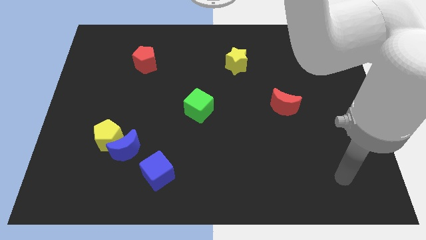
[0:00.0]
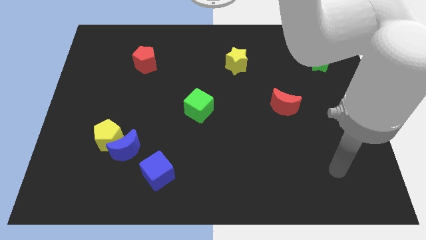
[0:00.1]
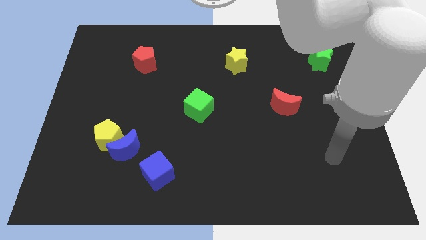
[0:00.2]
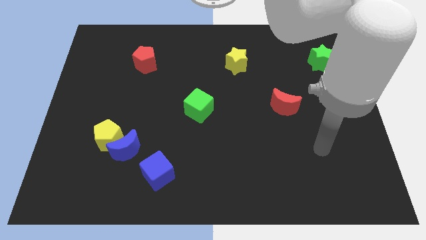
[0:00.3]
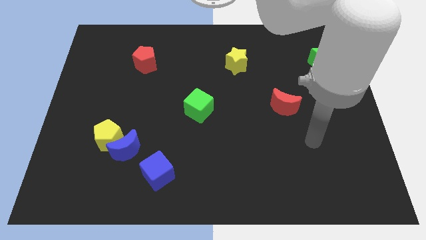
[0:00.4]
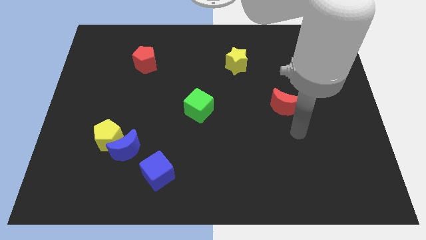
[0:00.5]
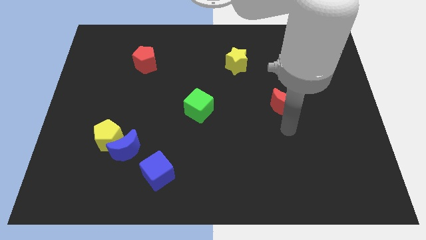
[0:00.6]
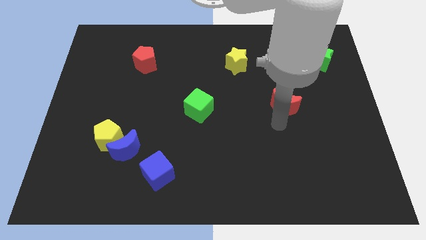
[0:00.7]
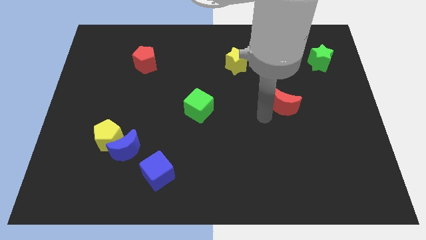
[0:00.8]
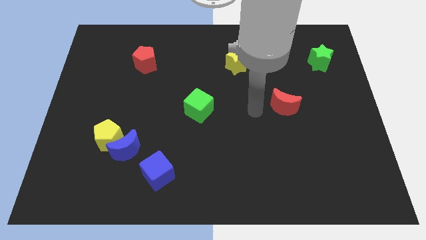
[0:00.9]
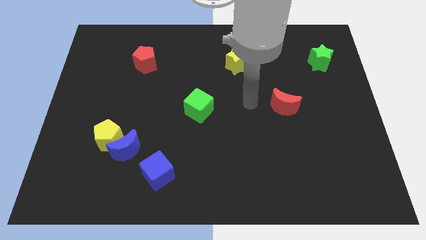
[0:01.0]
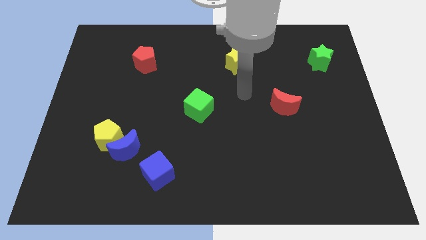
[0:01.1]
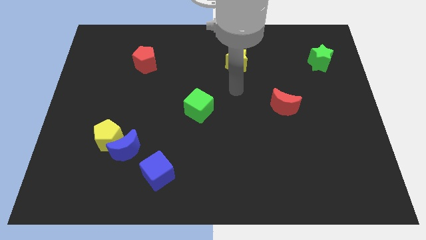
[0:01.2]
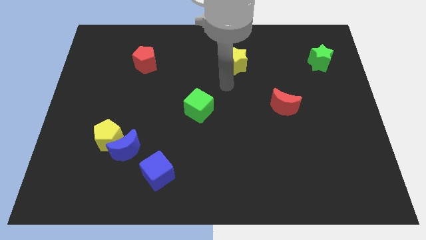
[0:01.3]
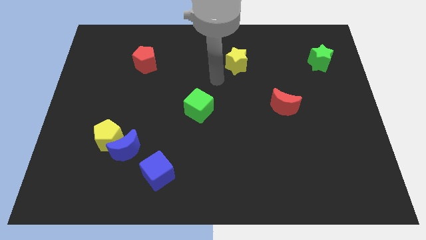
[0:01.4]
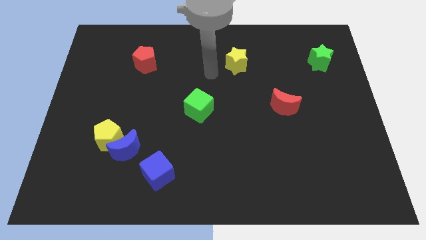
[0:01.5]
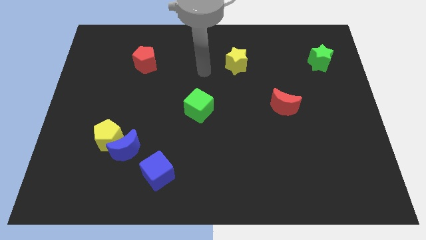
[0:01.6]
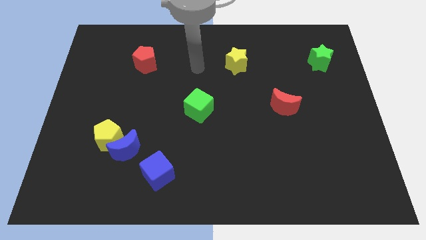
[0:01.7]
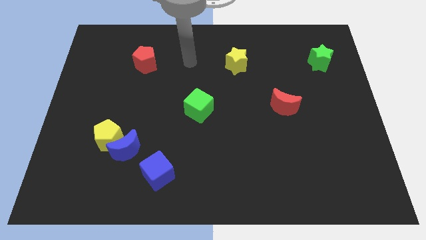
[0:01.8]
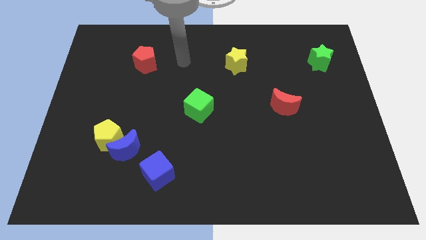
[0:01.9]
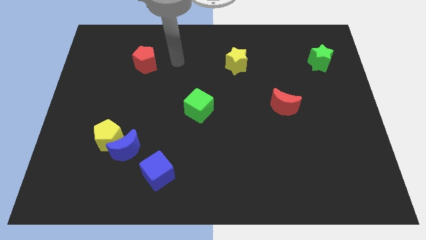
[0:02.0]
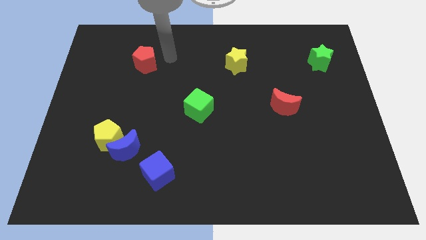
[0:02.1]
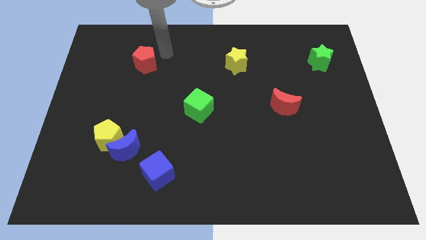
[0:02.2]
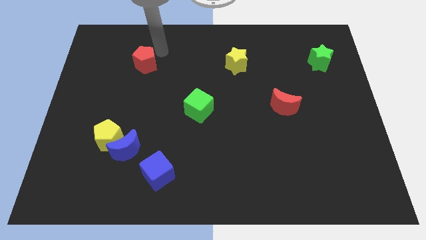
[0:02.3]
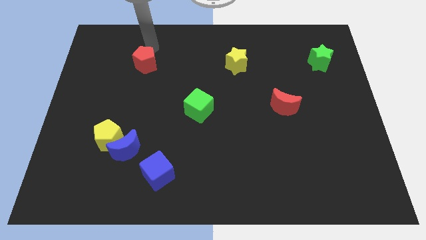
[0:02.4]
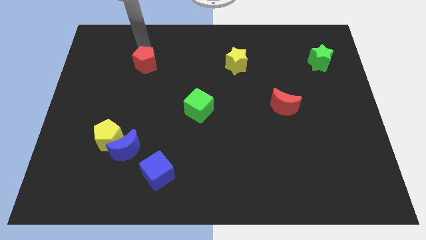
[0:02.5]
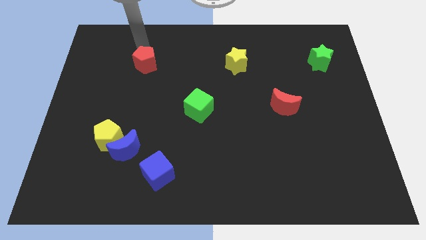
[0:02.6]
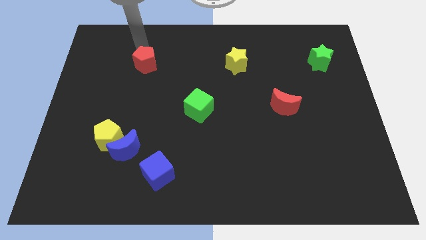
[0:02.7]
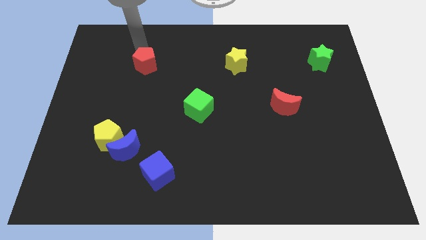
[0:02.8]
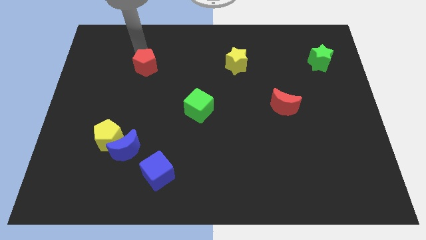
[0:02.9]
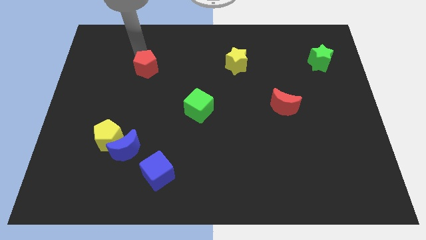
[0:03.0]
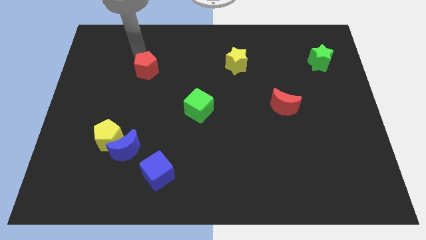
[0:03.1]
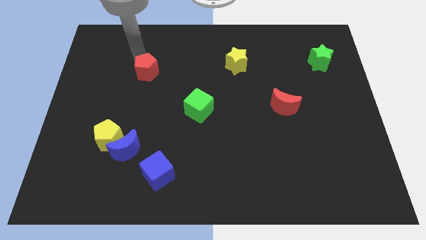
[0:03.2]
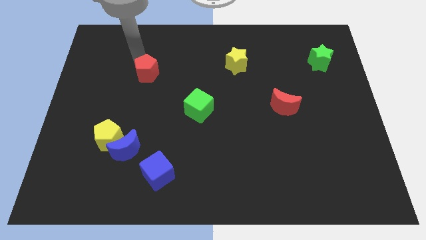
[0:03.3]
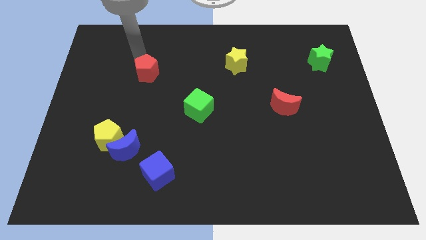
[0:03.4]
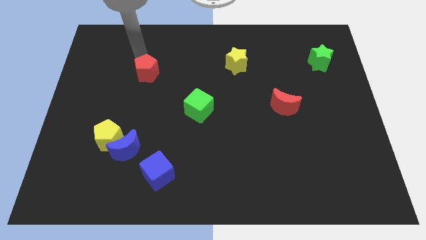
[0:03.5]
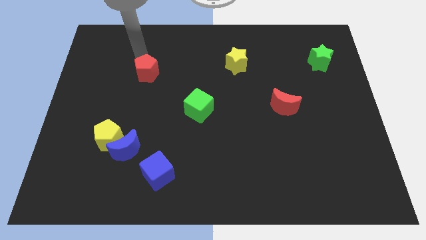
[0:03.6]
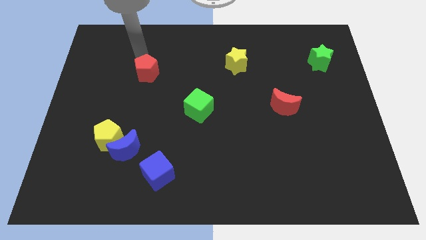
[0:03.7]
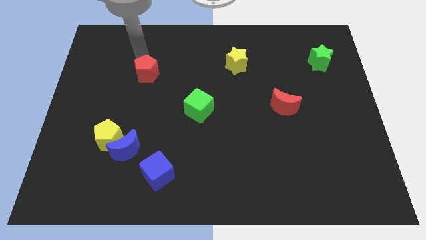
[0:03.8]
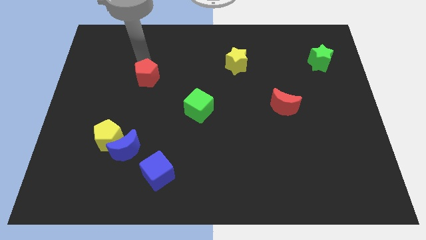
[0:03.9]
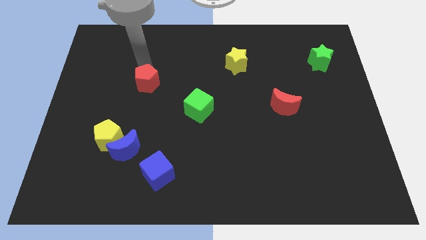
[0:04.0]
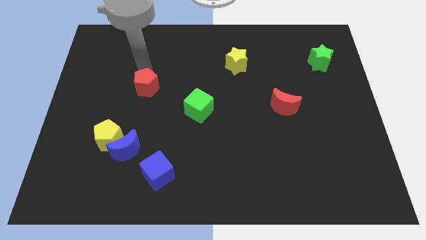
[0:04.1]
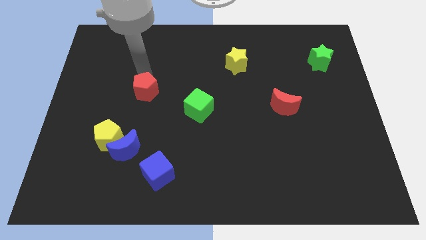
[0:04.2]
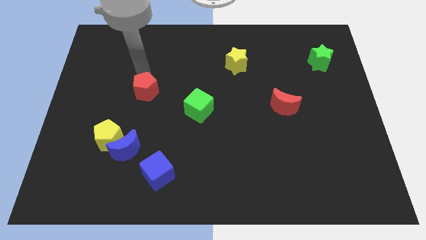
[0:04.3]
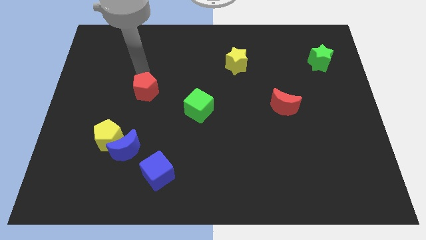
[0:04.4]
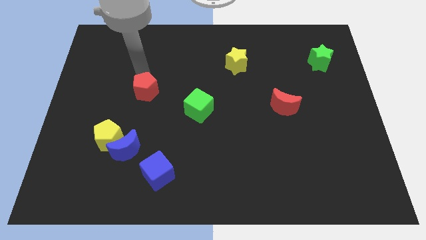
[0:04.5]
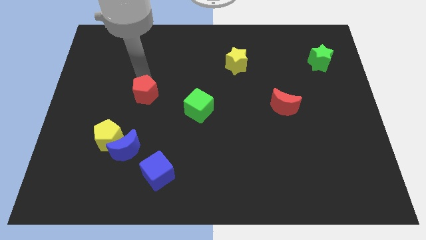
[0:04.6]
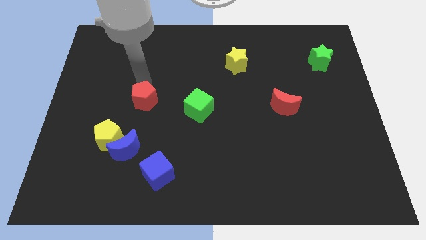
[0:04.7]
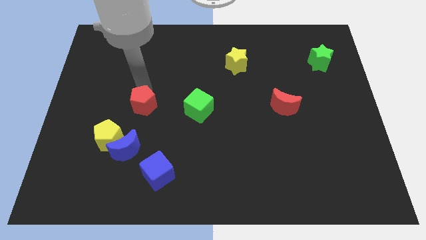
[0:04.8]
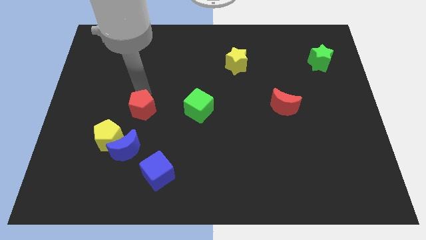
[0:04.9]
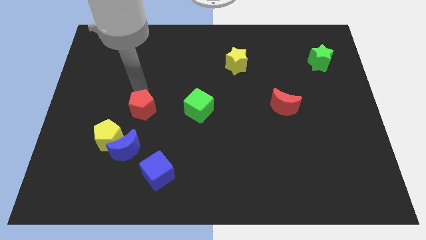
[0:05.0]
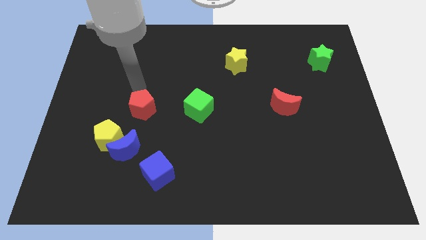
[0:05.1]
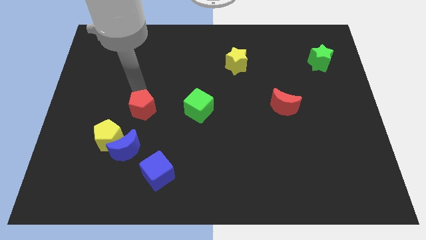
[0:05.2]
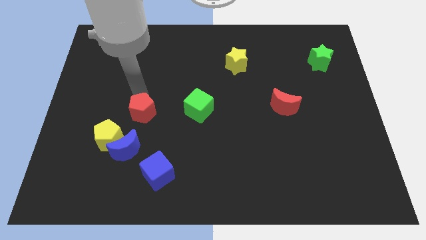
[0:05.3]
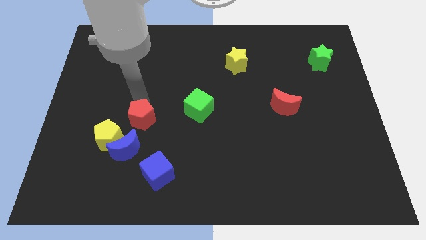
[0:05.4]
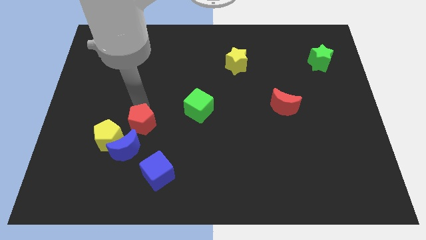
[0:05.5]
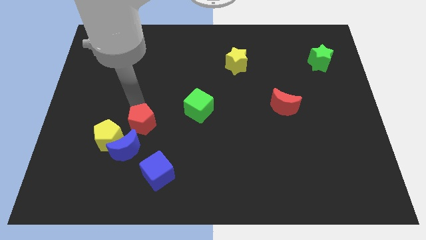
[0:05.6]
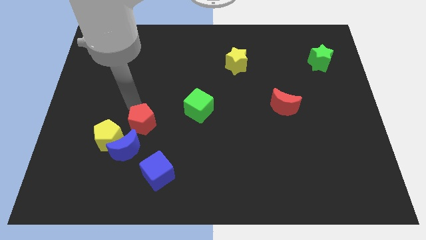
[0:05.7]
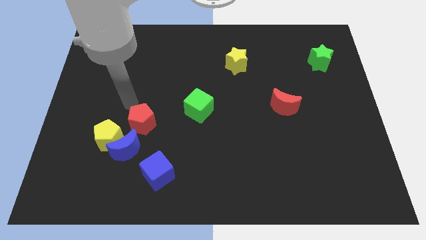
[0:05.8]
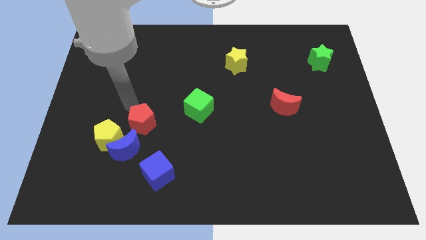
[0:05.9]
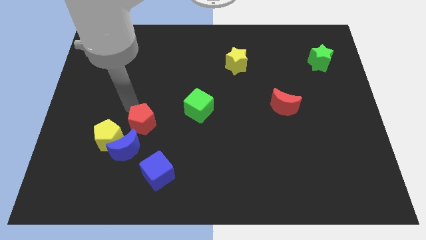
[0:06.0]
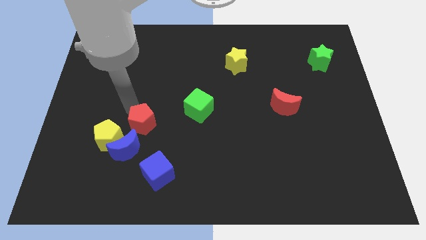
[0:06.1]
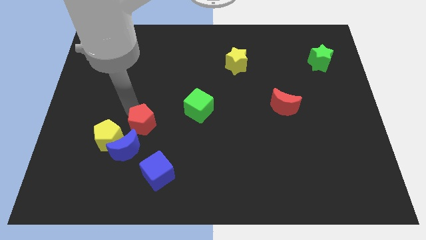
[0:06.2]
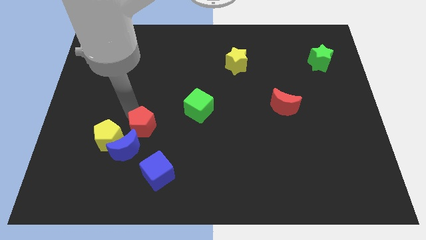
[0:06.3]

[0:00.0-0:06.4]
slide the red pentagon down

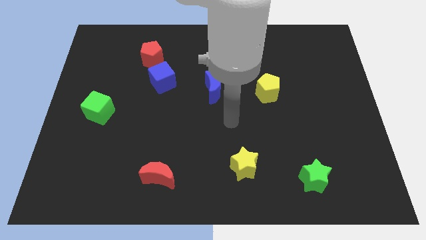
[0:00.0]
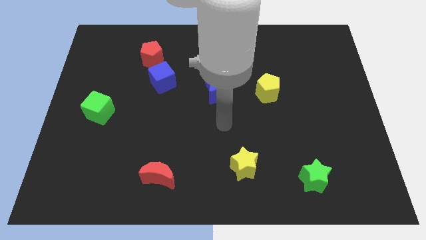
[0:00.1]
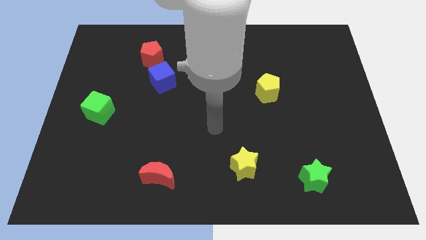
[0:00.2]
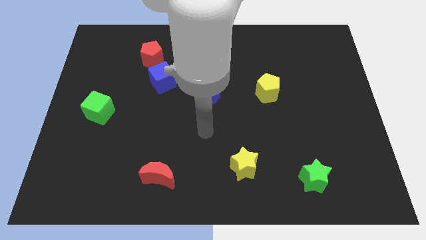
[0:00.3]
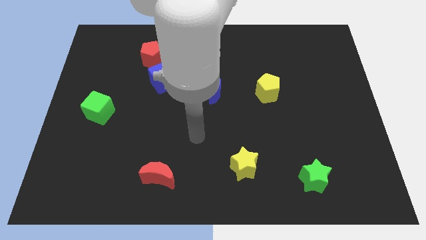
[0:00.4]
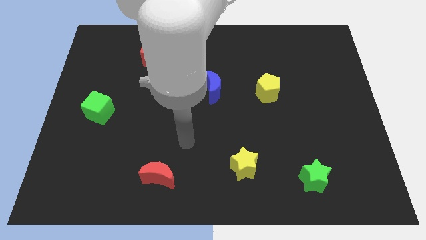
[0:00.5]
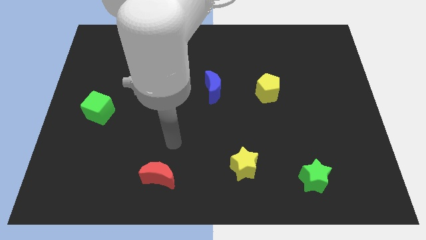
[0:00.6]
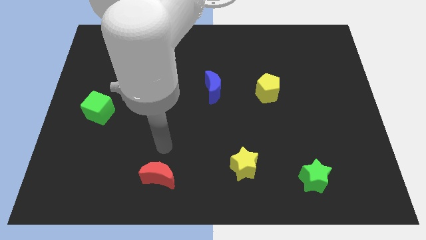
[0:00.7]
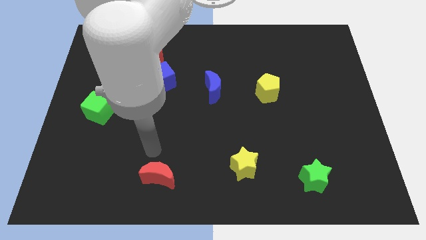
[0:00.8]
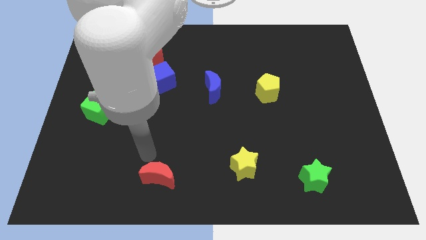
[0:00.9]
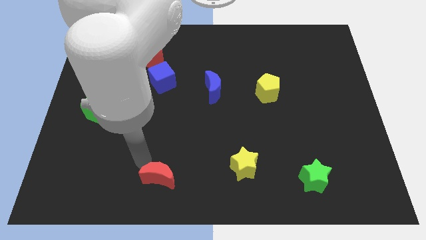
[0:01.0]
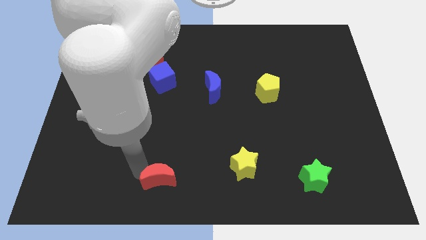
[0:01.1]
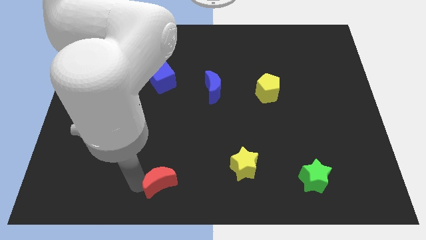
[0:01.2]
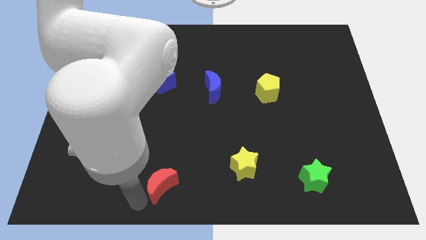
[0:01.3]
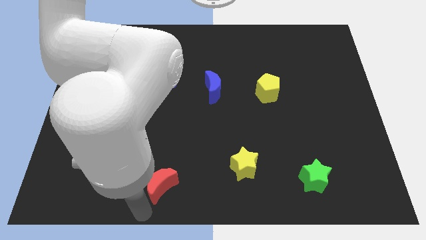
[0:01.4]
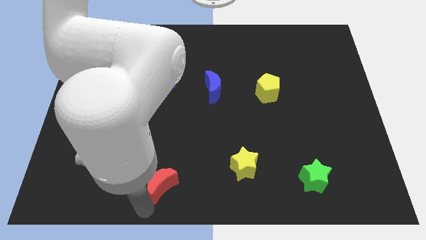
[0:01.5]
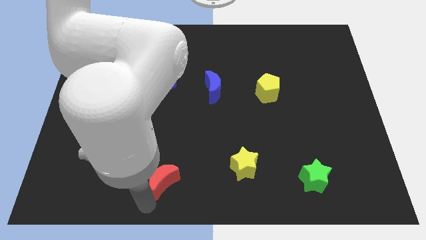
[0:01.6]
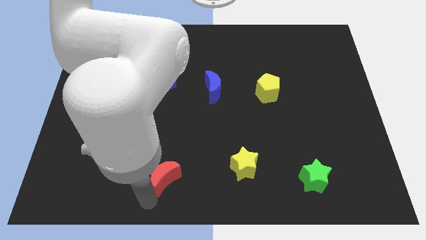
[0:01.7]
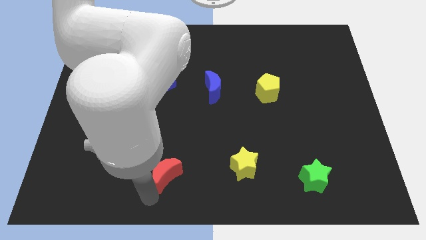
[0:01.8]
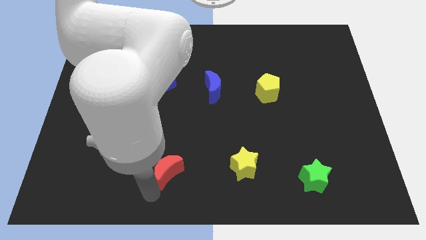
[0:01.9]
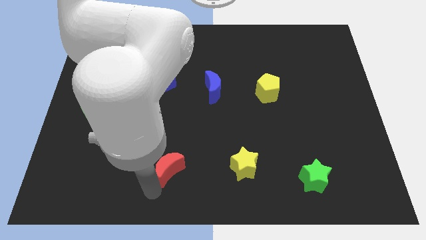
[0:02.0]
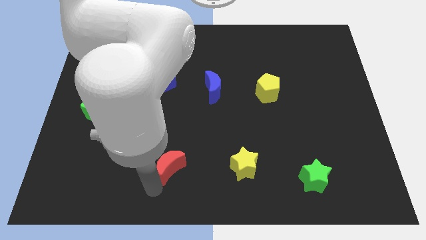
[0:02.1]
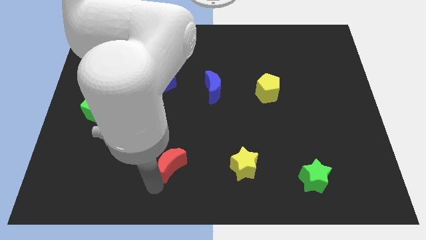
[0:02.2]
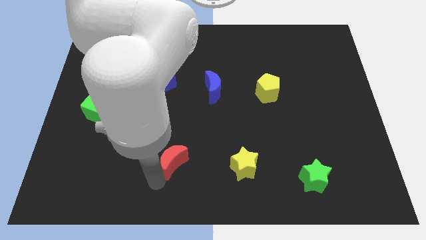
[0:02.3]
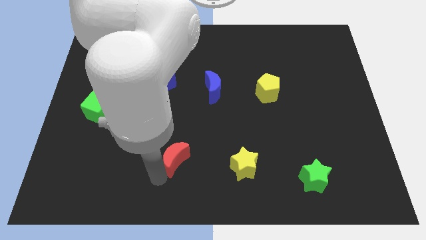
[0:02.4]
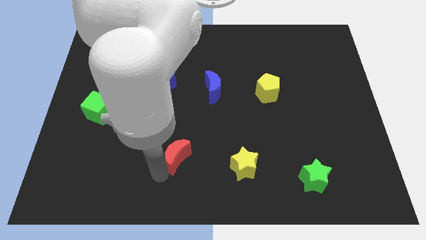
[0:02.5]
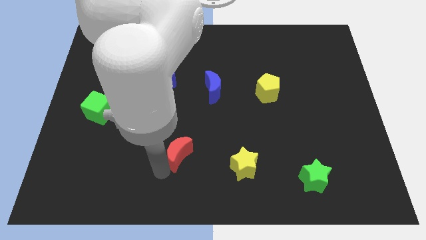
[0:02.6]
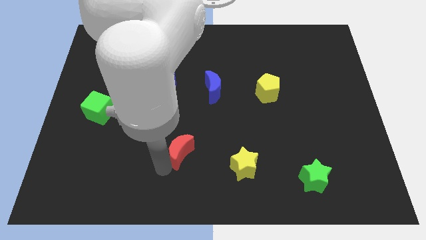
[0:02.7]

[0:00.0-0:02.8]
move the red moon a bit up and to the right diagonally
